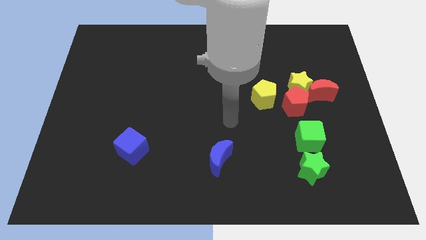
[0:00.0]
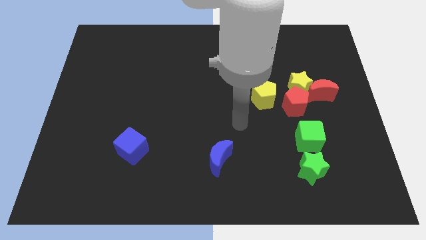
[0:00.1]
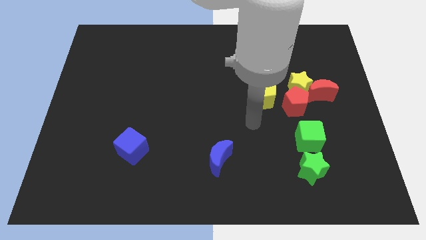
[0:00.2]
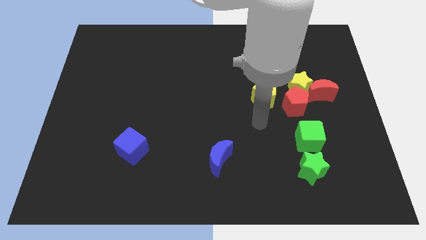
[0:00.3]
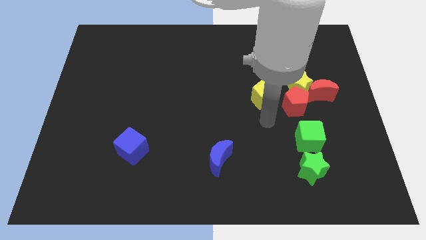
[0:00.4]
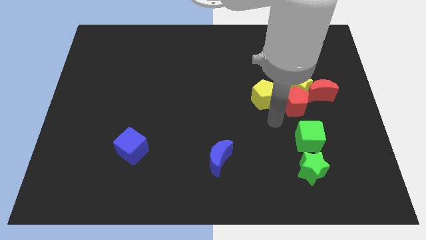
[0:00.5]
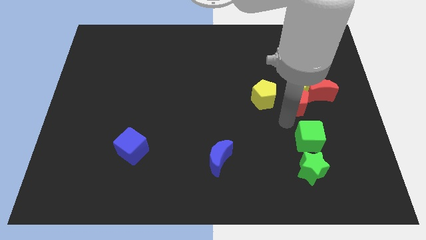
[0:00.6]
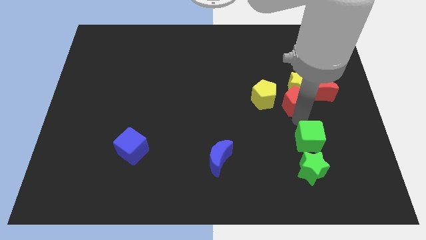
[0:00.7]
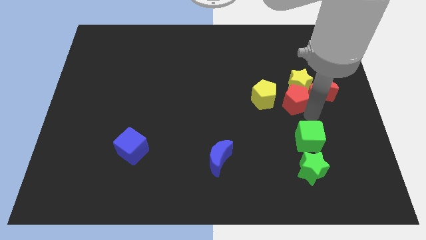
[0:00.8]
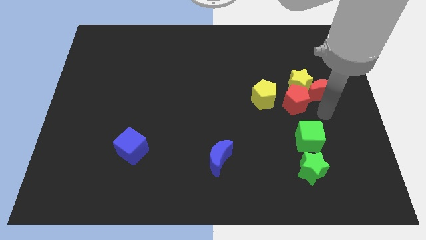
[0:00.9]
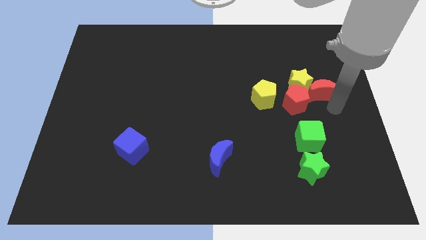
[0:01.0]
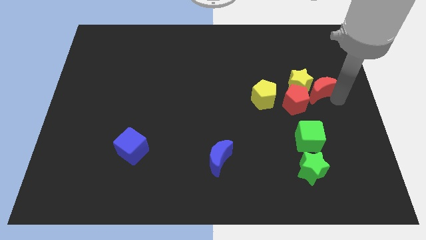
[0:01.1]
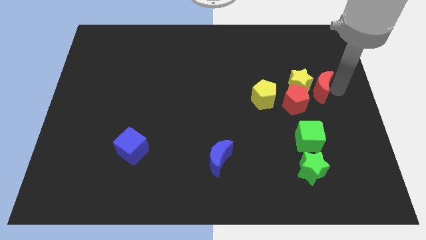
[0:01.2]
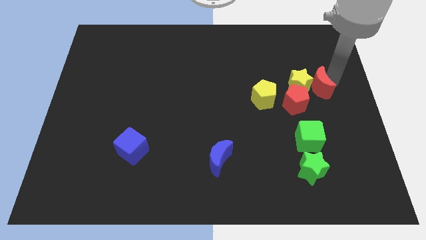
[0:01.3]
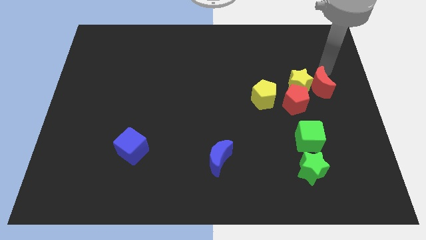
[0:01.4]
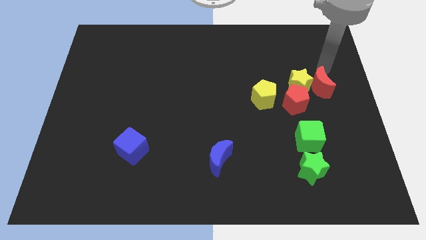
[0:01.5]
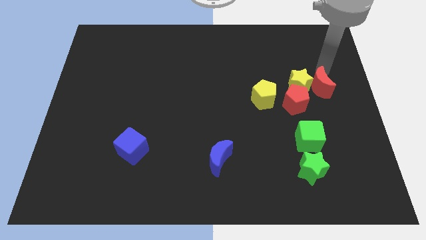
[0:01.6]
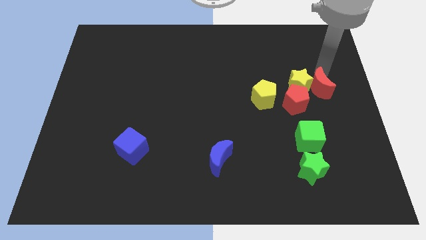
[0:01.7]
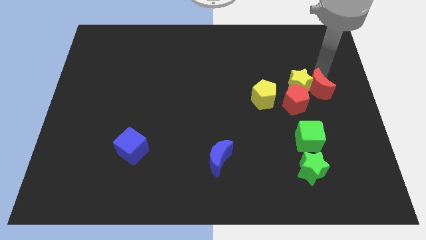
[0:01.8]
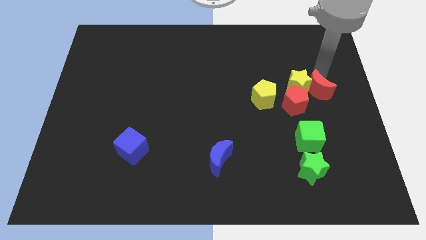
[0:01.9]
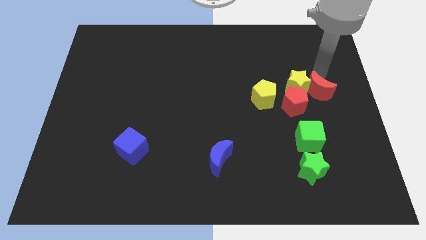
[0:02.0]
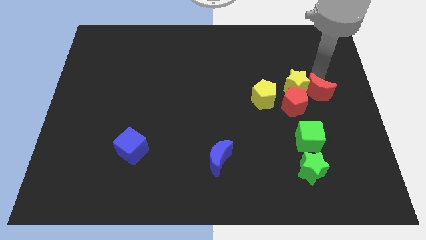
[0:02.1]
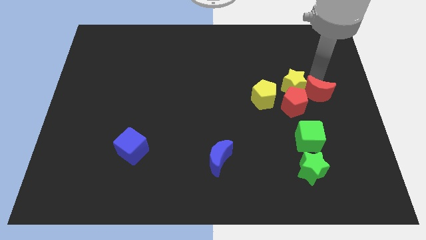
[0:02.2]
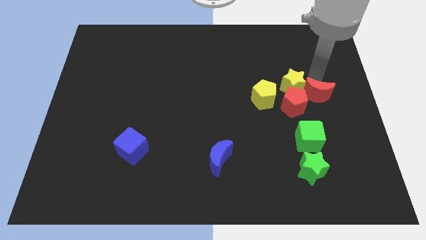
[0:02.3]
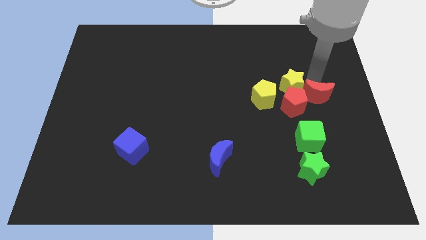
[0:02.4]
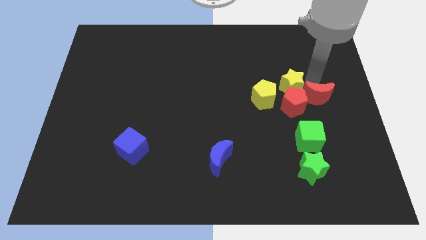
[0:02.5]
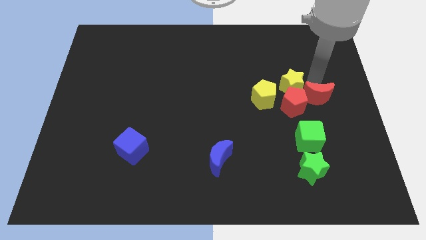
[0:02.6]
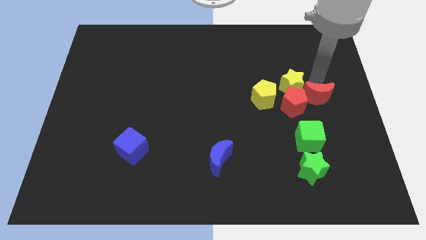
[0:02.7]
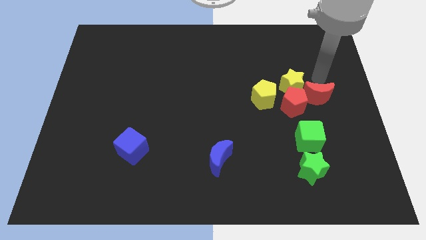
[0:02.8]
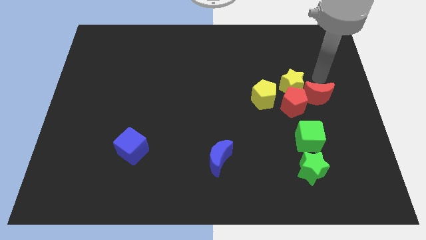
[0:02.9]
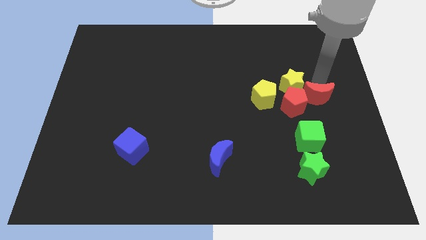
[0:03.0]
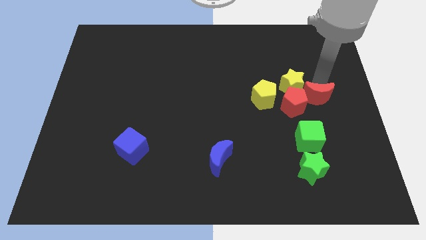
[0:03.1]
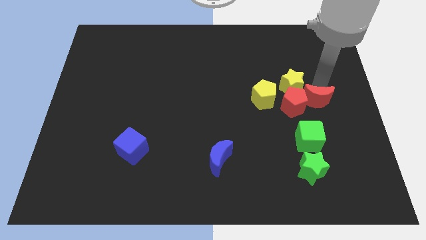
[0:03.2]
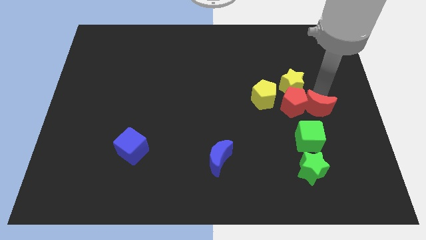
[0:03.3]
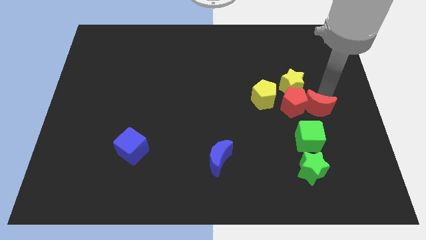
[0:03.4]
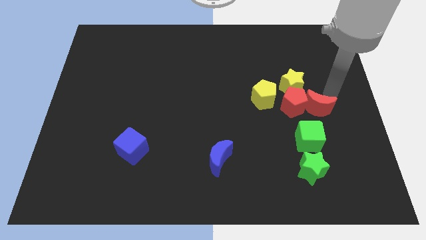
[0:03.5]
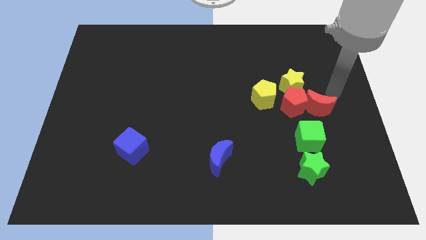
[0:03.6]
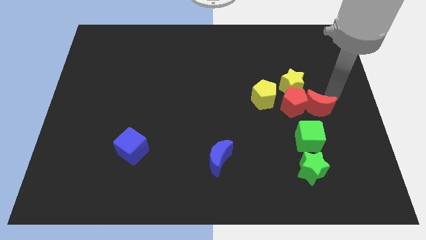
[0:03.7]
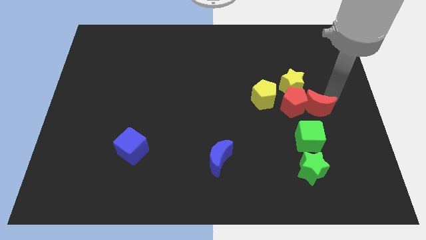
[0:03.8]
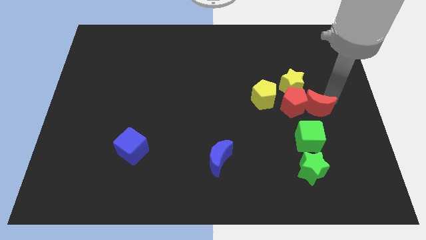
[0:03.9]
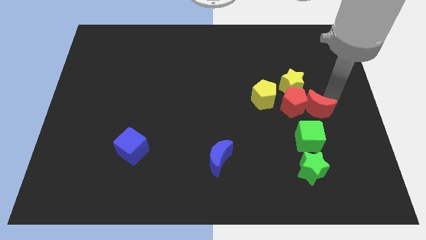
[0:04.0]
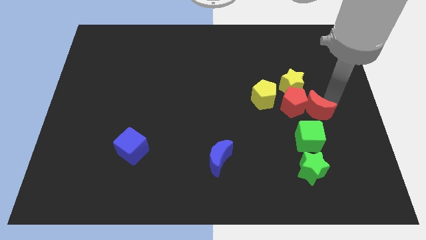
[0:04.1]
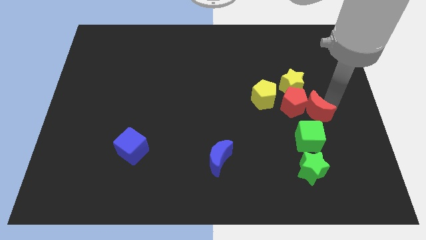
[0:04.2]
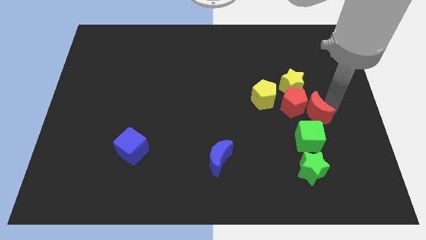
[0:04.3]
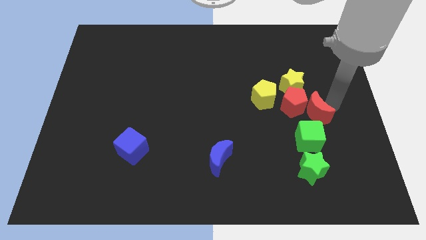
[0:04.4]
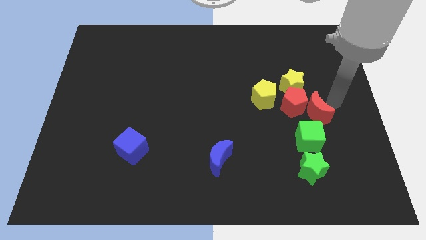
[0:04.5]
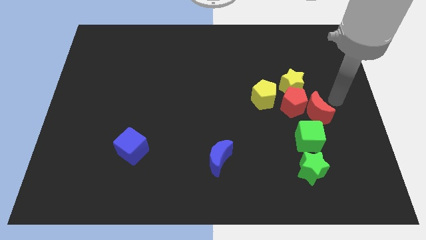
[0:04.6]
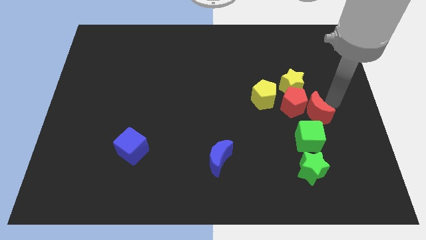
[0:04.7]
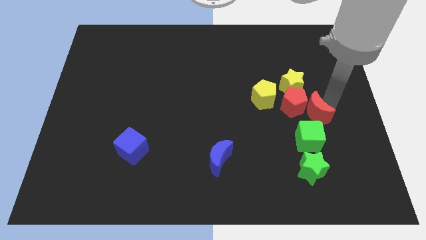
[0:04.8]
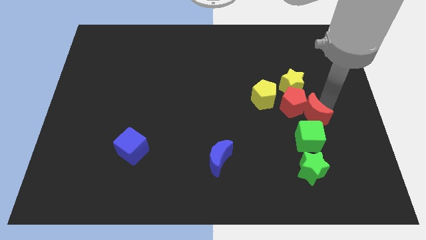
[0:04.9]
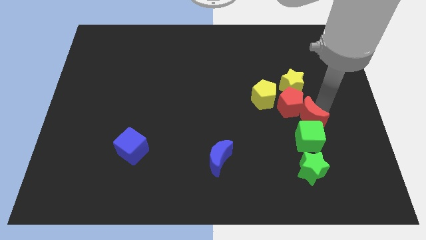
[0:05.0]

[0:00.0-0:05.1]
push the red moon diagonally down and to the right of the yellow pentagon
